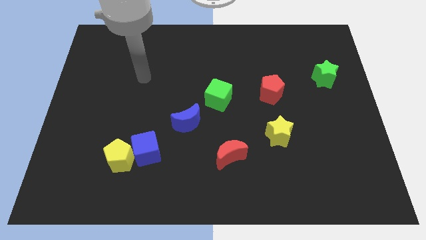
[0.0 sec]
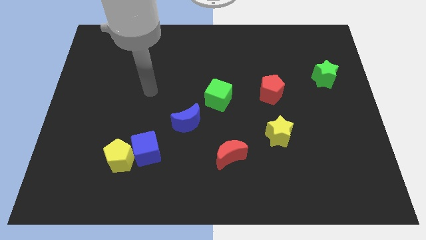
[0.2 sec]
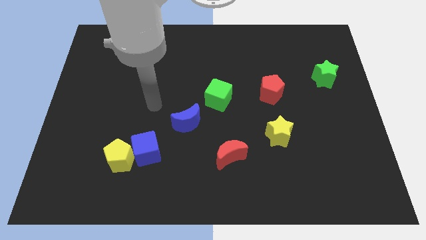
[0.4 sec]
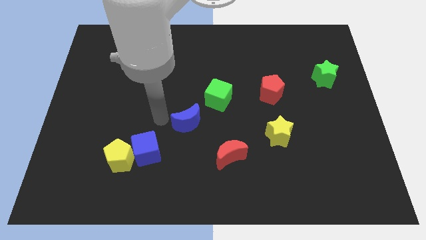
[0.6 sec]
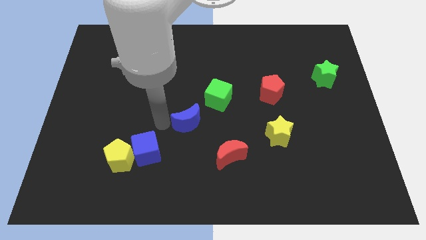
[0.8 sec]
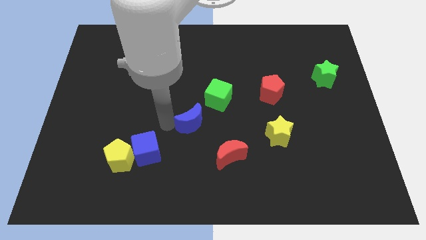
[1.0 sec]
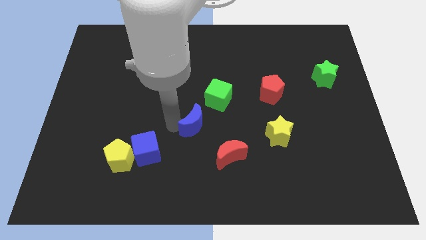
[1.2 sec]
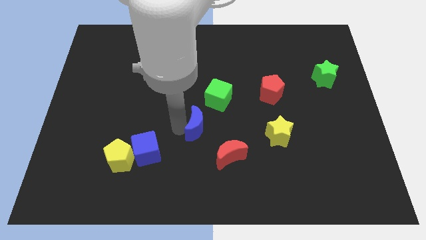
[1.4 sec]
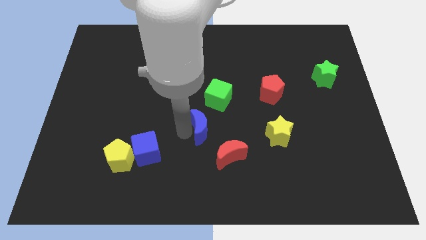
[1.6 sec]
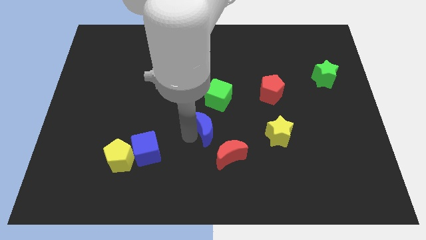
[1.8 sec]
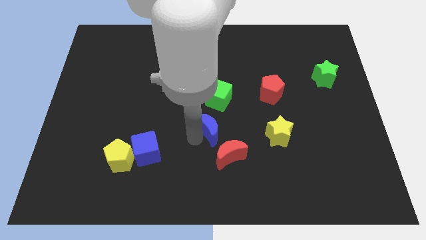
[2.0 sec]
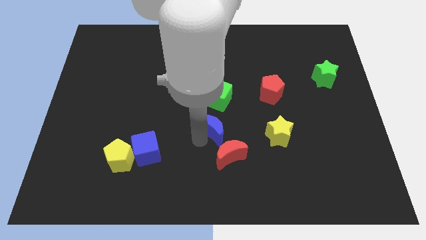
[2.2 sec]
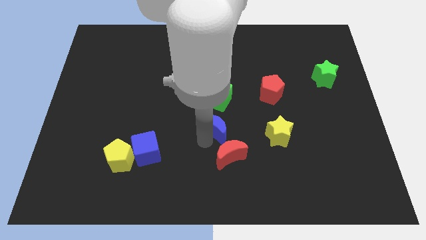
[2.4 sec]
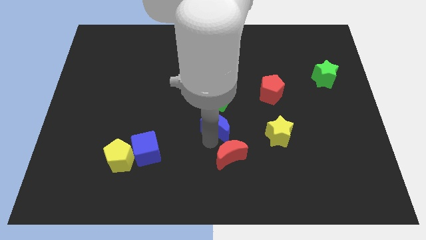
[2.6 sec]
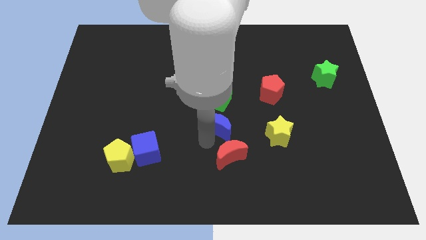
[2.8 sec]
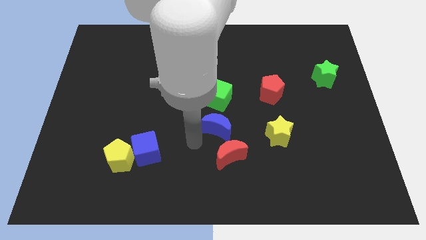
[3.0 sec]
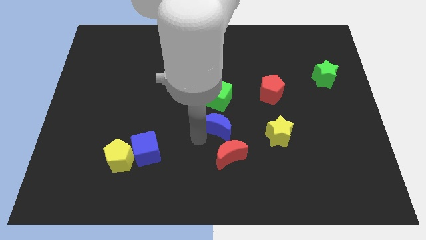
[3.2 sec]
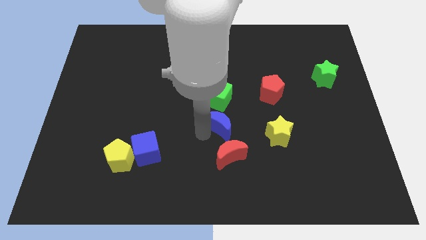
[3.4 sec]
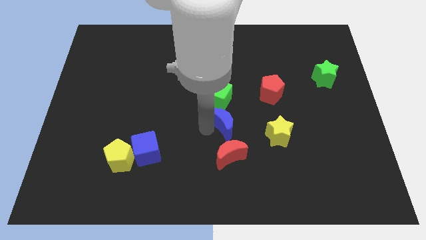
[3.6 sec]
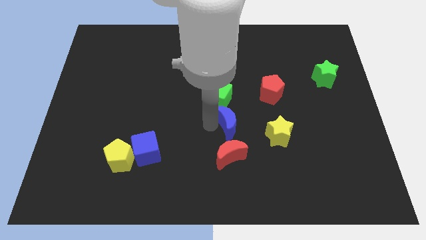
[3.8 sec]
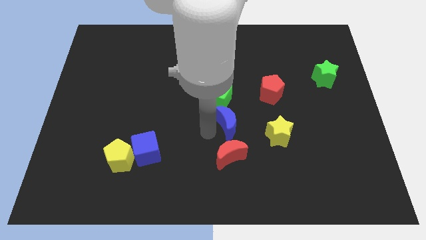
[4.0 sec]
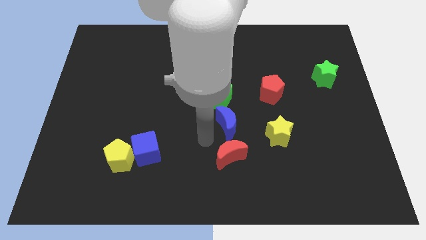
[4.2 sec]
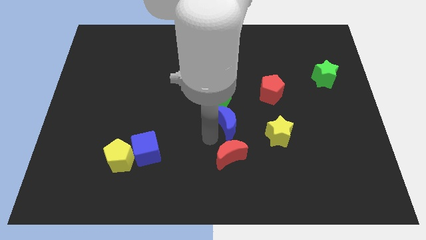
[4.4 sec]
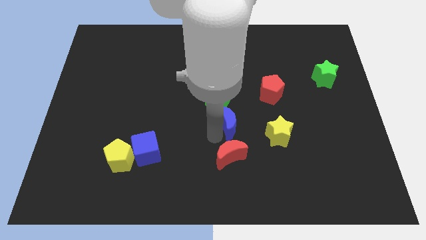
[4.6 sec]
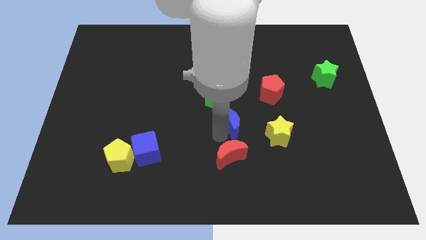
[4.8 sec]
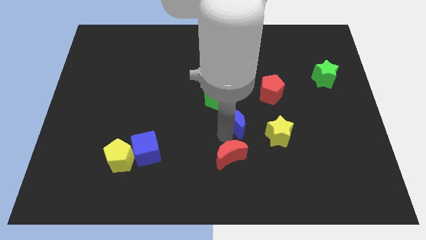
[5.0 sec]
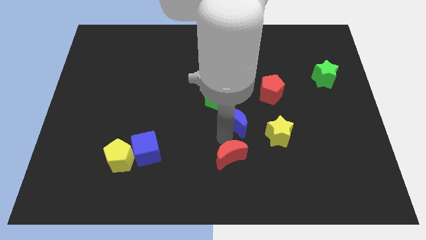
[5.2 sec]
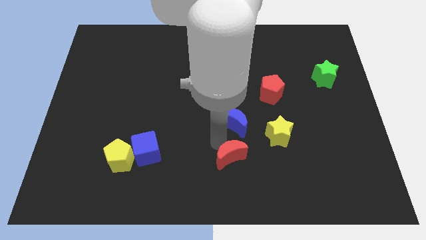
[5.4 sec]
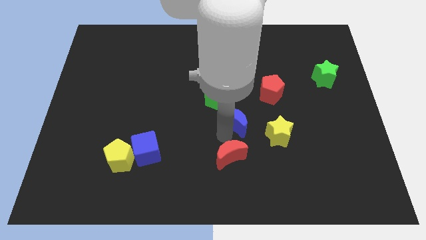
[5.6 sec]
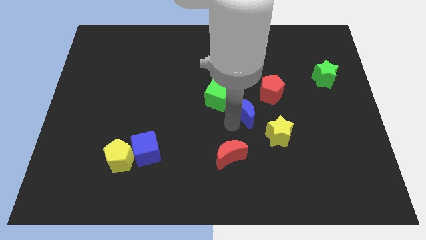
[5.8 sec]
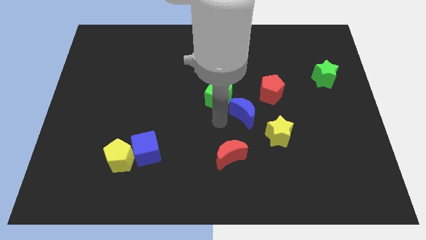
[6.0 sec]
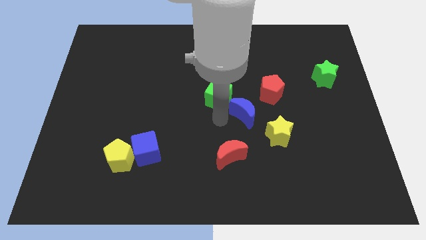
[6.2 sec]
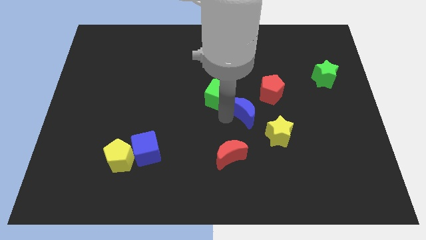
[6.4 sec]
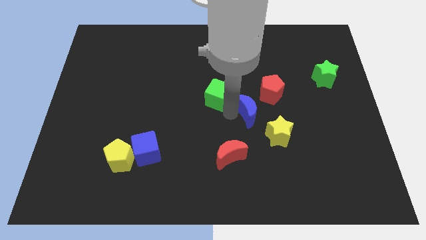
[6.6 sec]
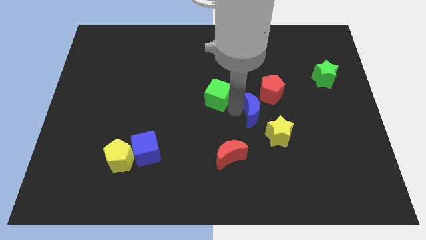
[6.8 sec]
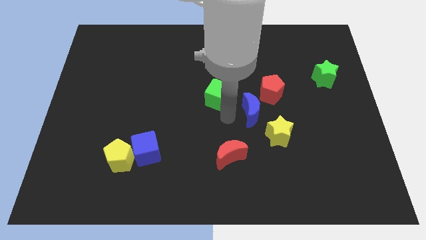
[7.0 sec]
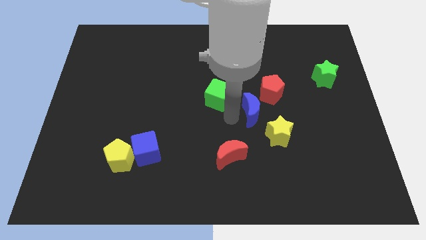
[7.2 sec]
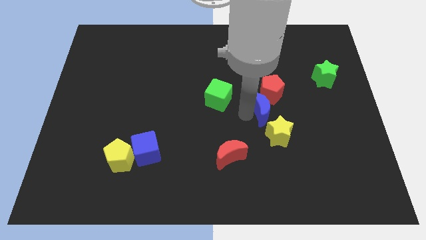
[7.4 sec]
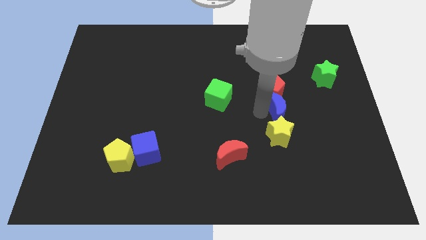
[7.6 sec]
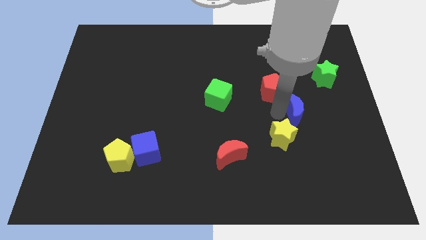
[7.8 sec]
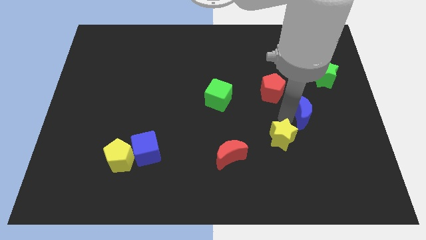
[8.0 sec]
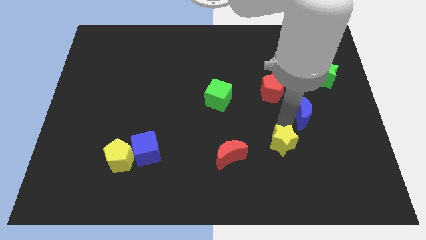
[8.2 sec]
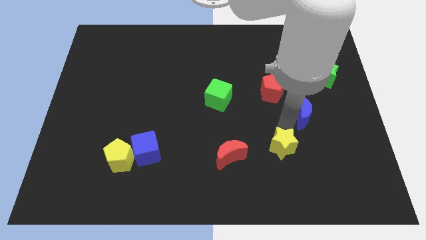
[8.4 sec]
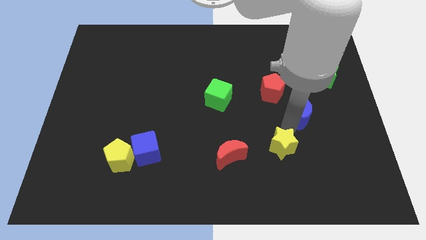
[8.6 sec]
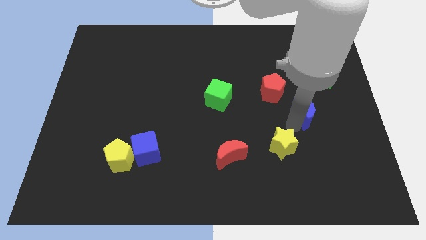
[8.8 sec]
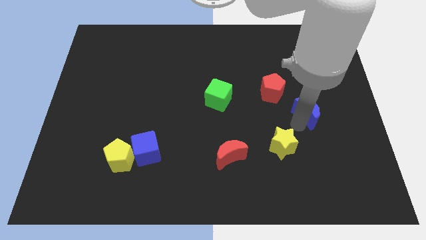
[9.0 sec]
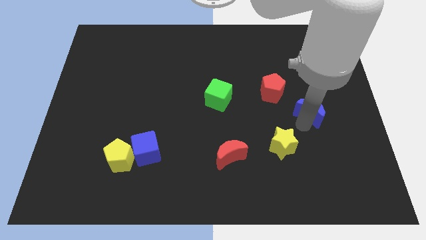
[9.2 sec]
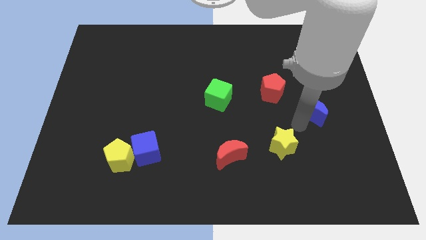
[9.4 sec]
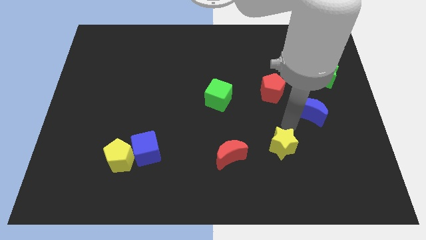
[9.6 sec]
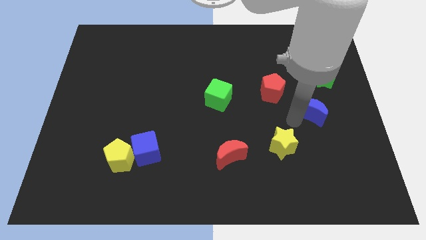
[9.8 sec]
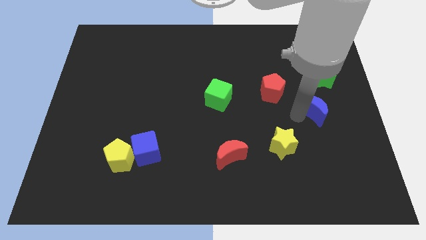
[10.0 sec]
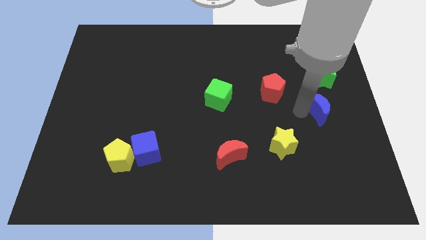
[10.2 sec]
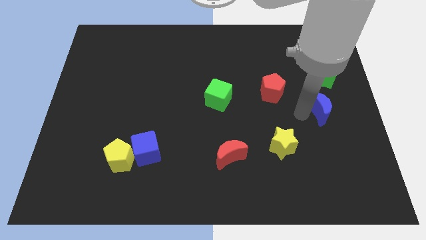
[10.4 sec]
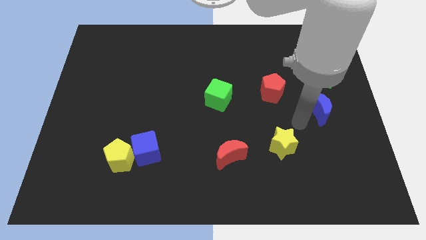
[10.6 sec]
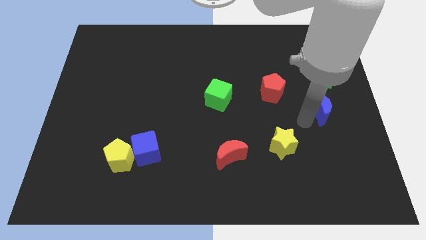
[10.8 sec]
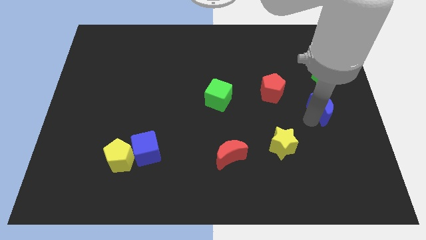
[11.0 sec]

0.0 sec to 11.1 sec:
slide the blue moon to the right side of the board

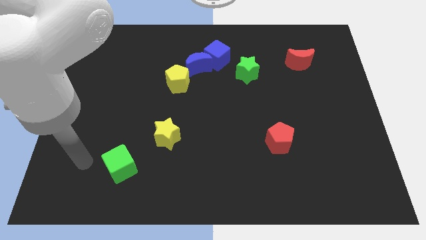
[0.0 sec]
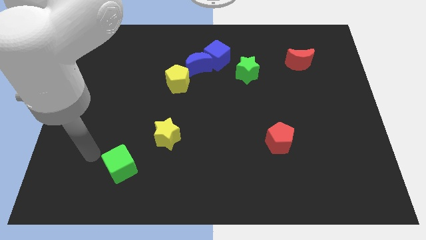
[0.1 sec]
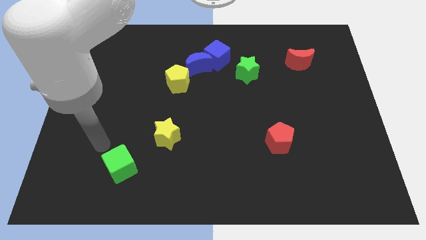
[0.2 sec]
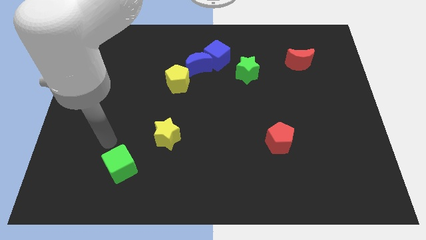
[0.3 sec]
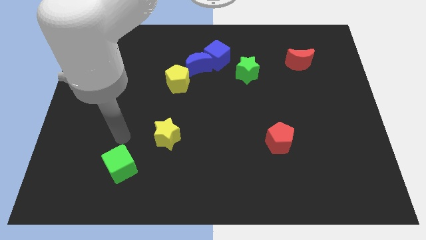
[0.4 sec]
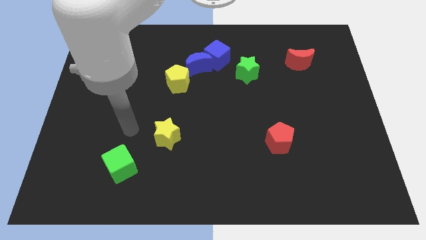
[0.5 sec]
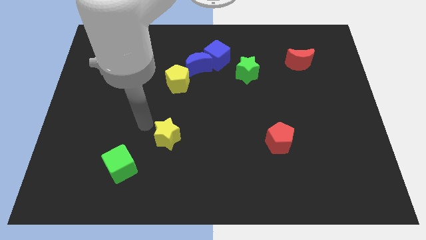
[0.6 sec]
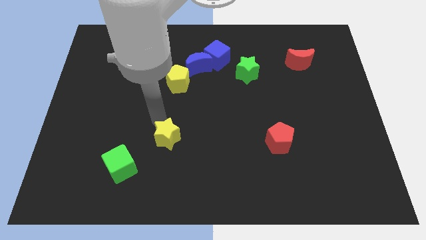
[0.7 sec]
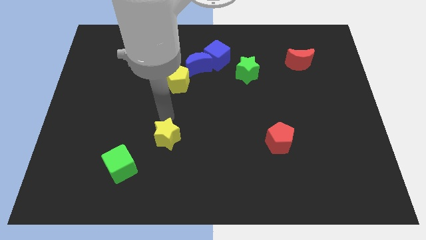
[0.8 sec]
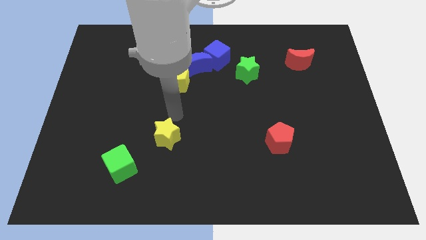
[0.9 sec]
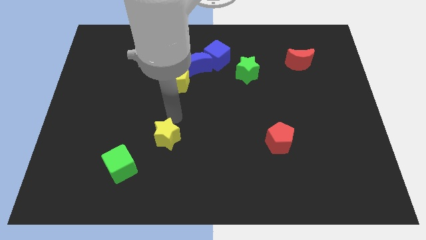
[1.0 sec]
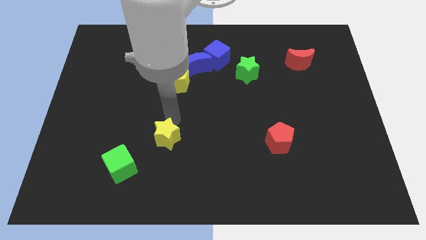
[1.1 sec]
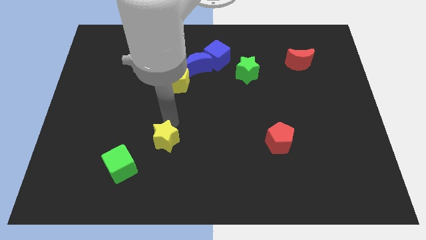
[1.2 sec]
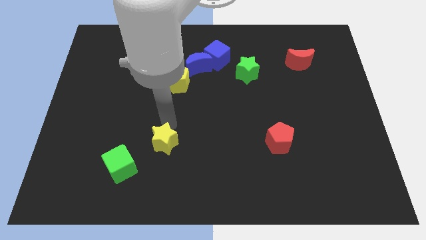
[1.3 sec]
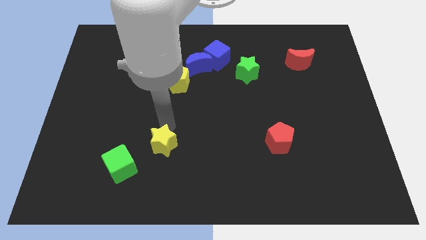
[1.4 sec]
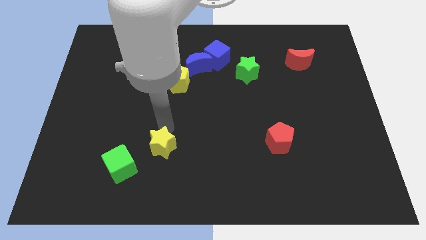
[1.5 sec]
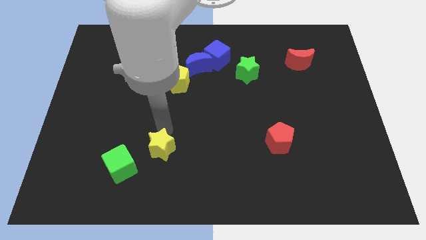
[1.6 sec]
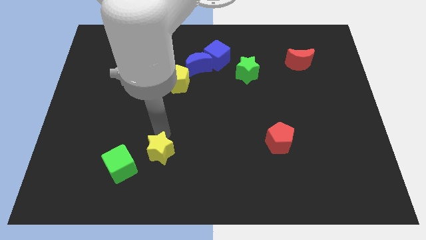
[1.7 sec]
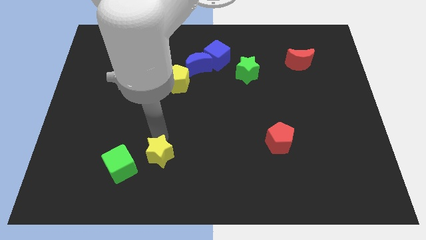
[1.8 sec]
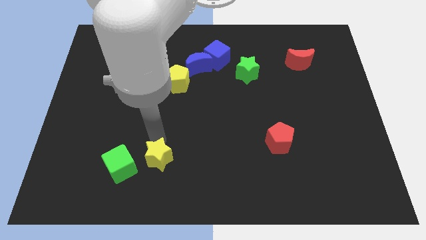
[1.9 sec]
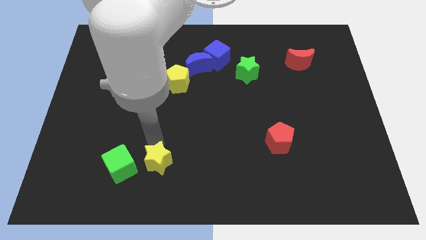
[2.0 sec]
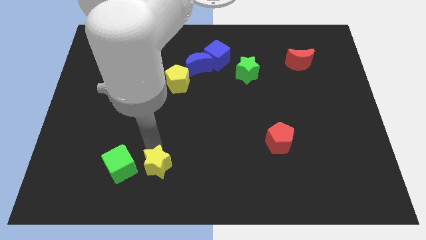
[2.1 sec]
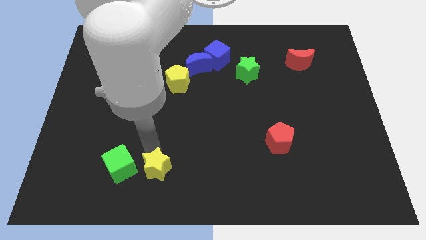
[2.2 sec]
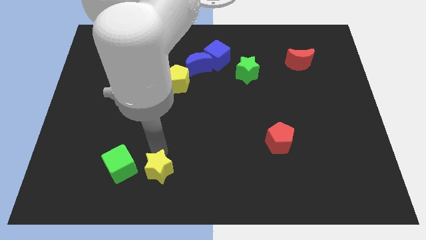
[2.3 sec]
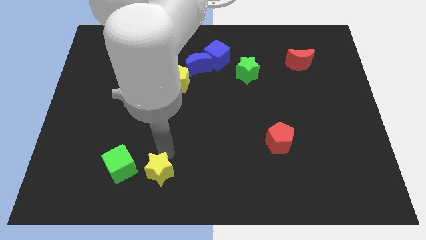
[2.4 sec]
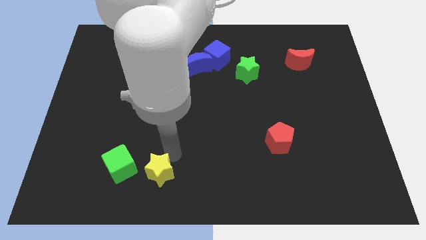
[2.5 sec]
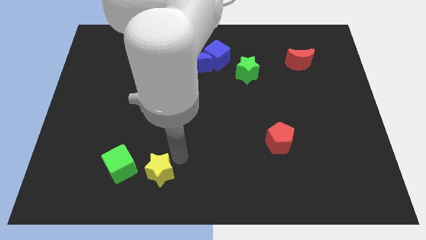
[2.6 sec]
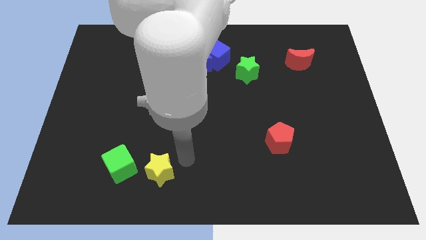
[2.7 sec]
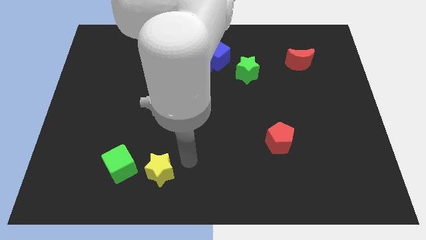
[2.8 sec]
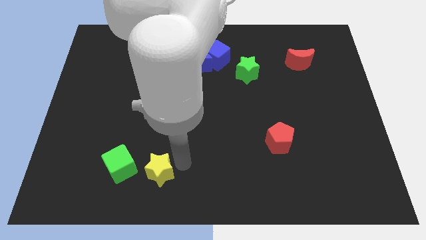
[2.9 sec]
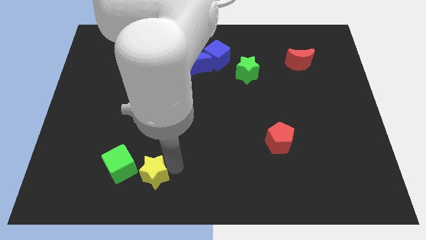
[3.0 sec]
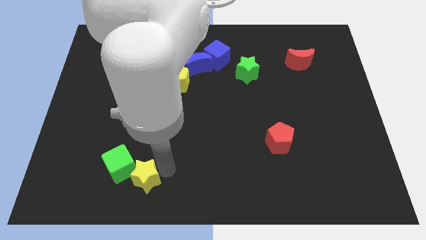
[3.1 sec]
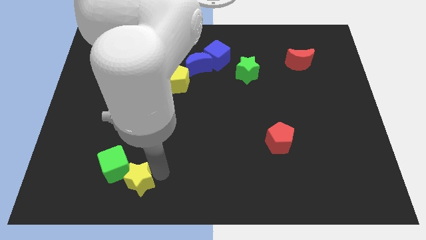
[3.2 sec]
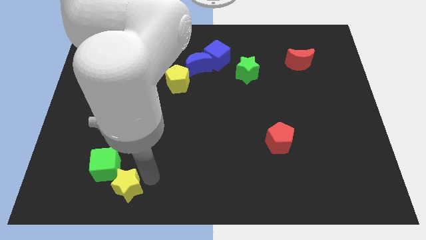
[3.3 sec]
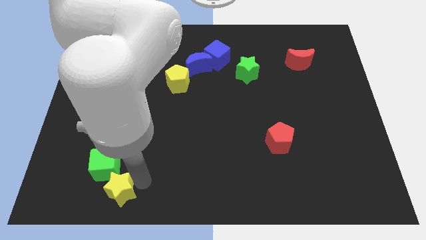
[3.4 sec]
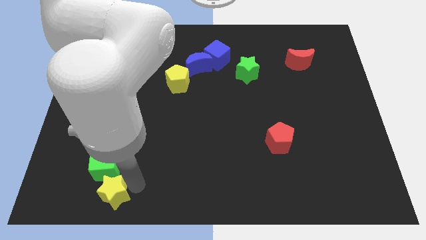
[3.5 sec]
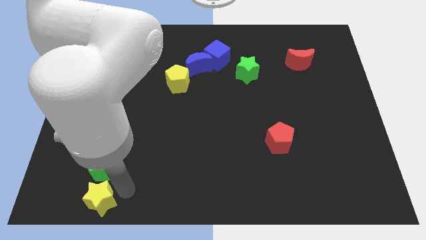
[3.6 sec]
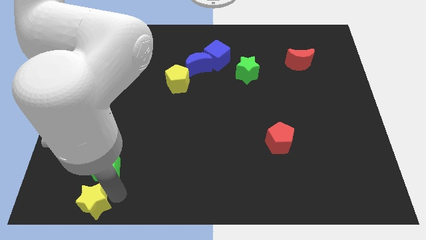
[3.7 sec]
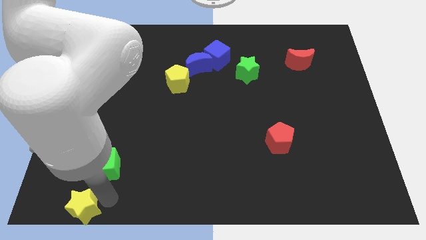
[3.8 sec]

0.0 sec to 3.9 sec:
move the yellow star to the lower left corner
